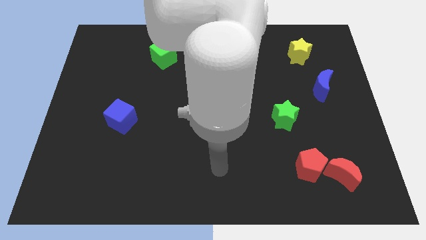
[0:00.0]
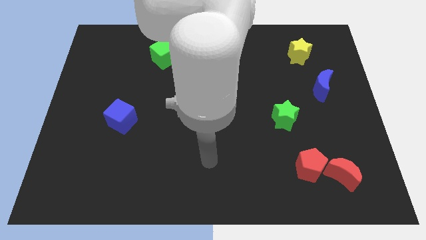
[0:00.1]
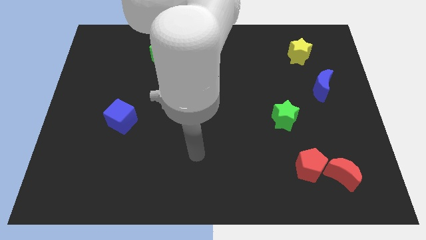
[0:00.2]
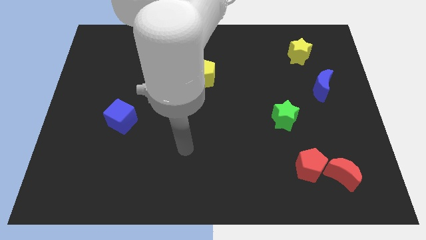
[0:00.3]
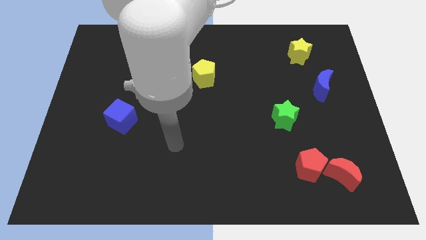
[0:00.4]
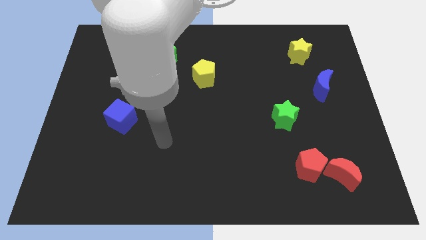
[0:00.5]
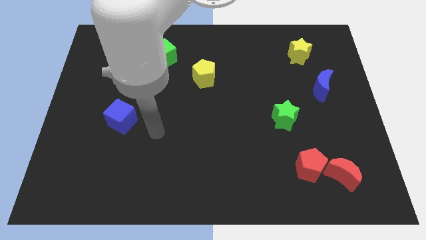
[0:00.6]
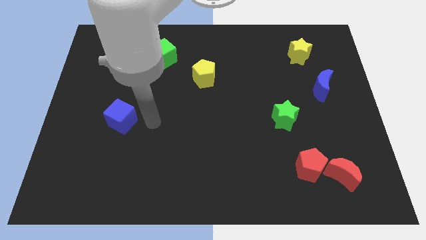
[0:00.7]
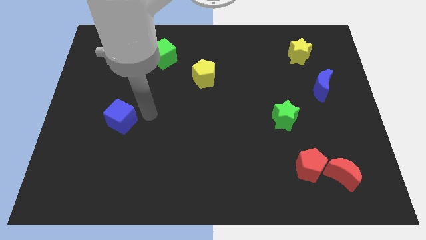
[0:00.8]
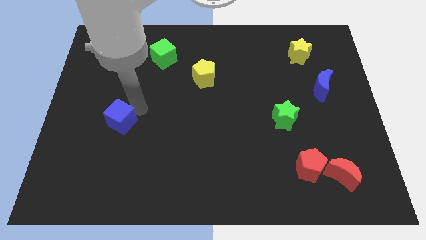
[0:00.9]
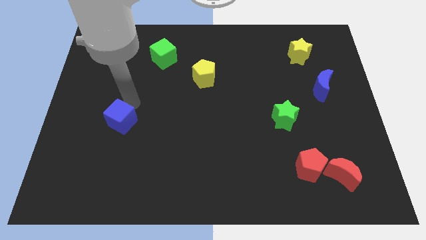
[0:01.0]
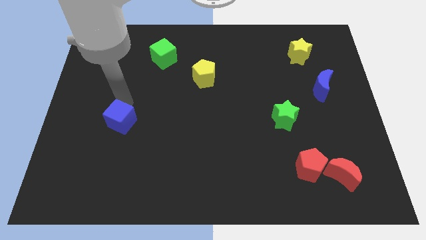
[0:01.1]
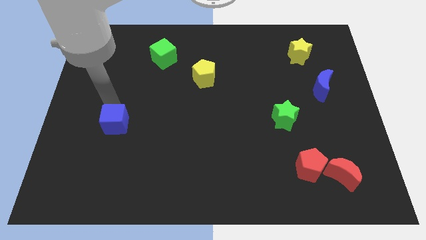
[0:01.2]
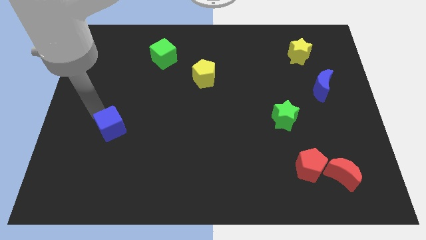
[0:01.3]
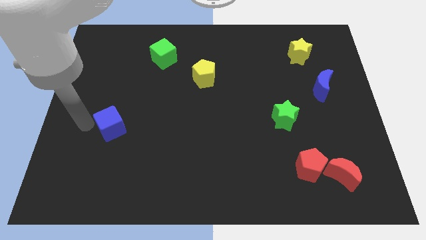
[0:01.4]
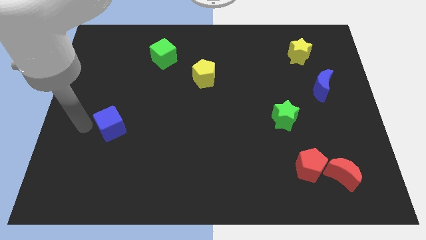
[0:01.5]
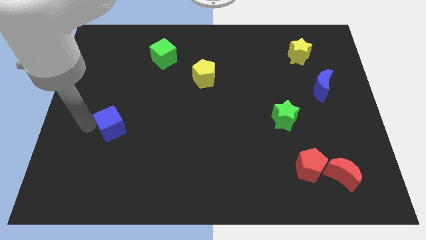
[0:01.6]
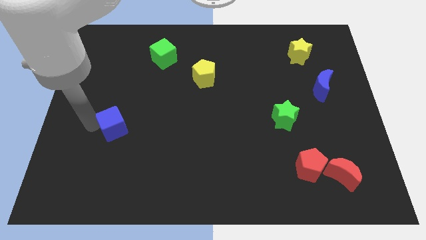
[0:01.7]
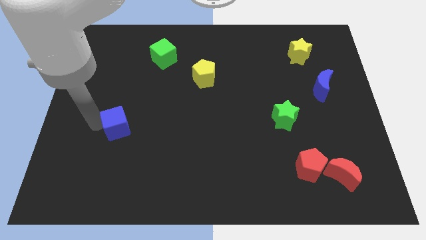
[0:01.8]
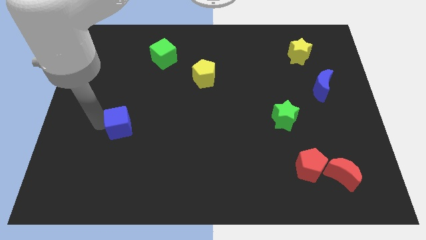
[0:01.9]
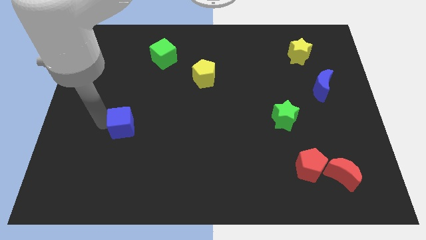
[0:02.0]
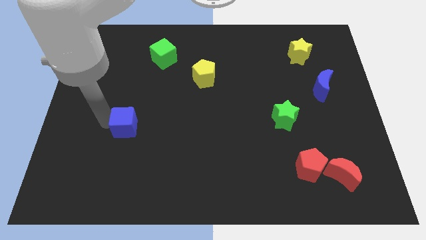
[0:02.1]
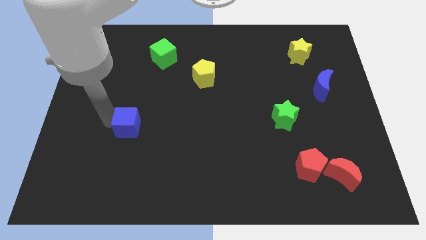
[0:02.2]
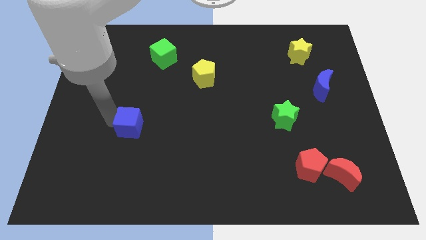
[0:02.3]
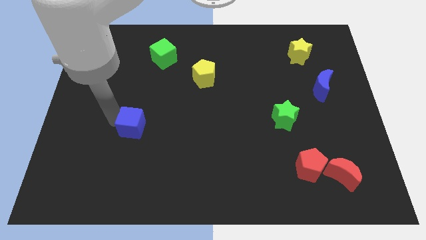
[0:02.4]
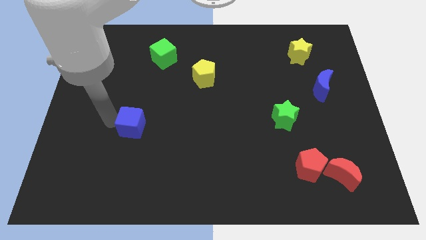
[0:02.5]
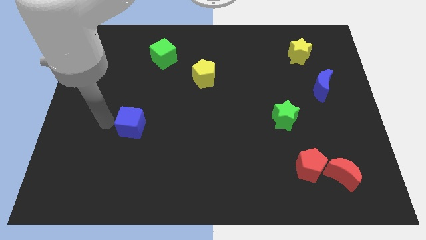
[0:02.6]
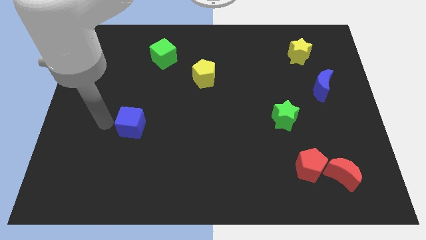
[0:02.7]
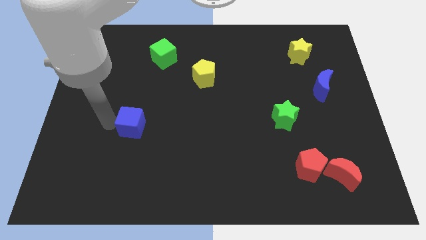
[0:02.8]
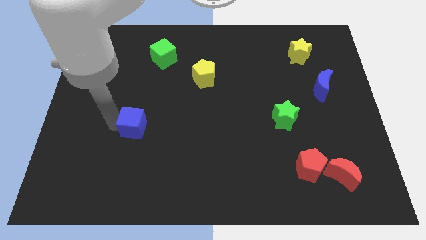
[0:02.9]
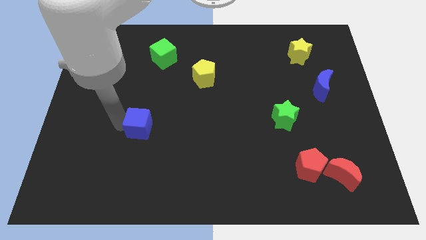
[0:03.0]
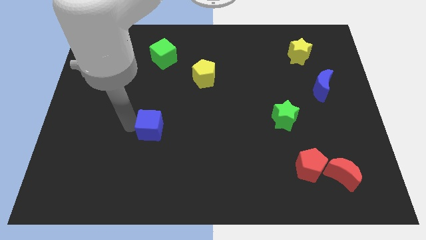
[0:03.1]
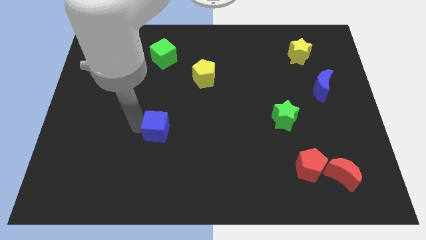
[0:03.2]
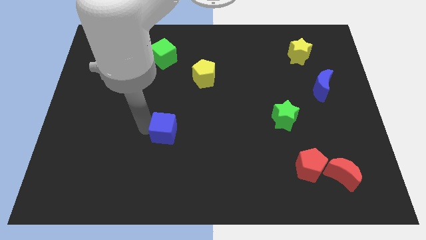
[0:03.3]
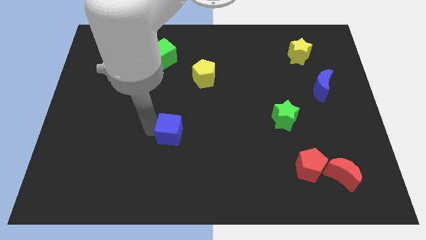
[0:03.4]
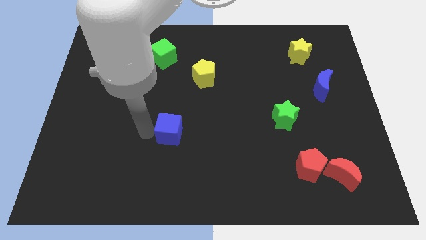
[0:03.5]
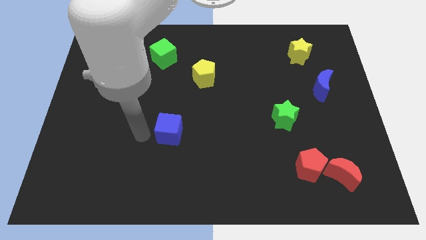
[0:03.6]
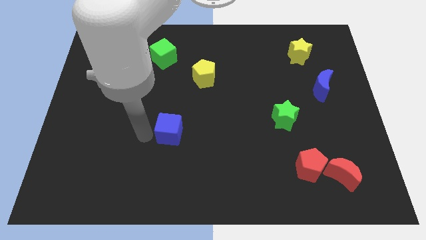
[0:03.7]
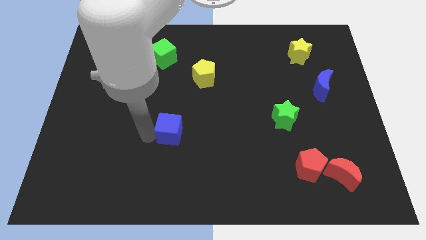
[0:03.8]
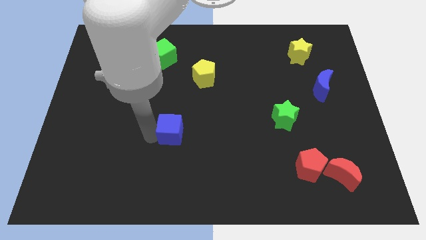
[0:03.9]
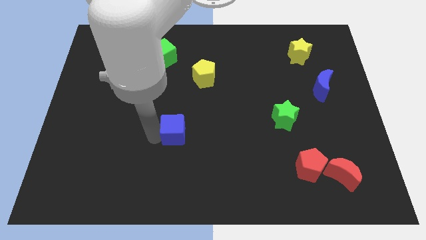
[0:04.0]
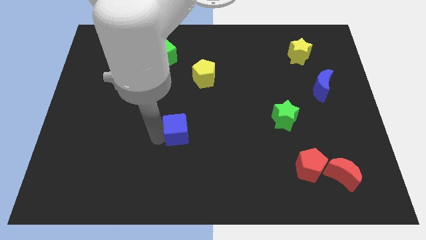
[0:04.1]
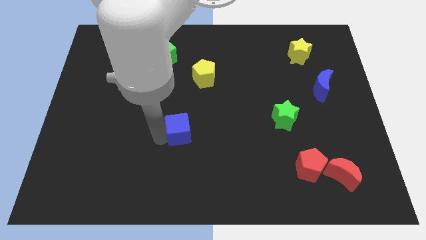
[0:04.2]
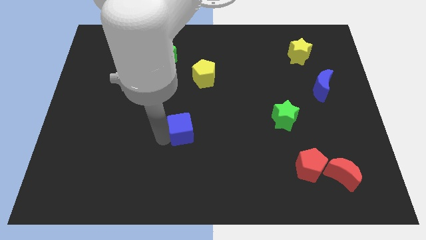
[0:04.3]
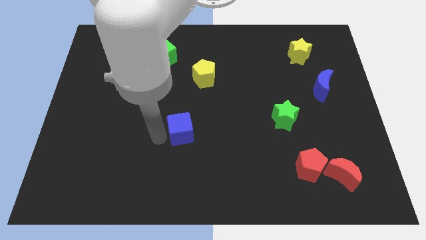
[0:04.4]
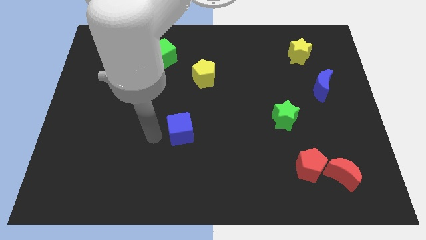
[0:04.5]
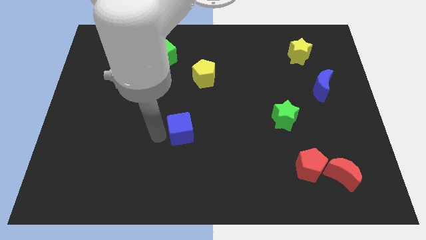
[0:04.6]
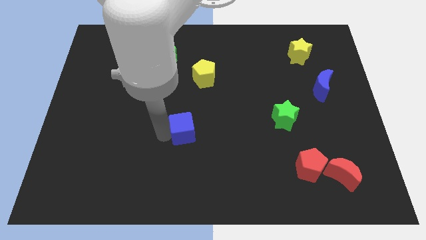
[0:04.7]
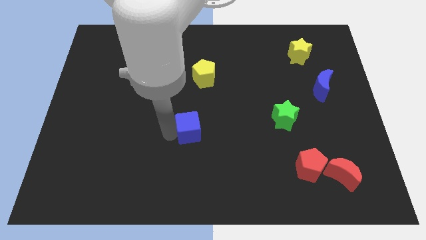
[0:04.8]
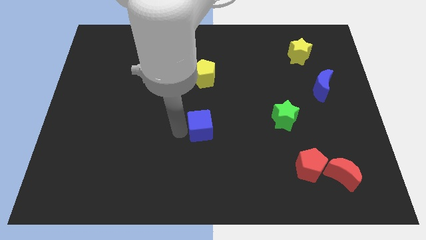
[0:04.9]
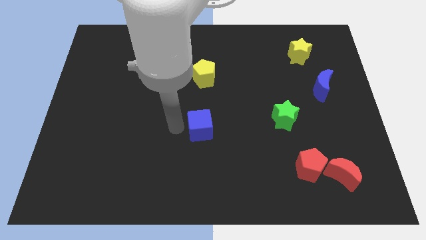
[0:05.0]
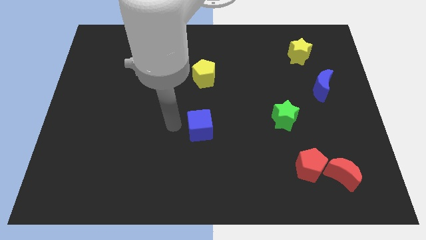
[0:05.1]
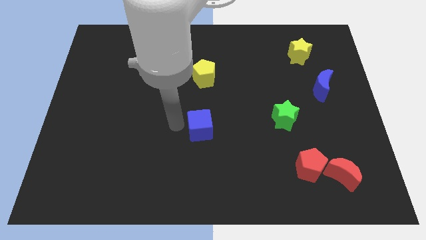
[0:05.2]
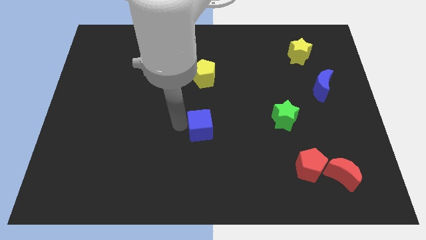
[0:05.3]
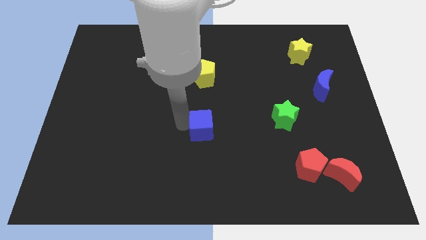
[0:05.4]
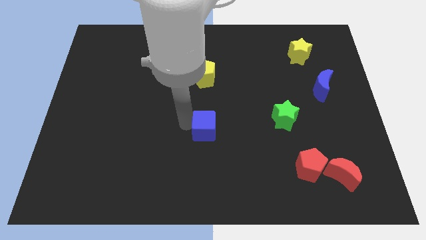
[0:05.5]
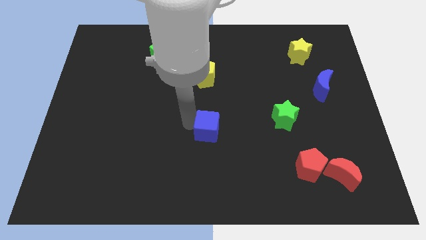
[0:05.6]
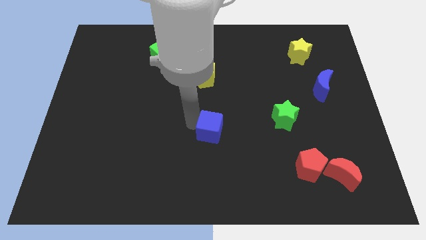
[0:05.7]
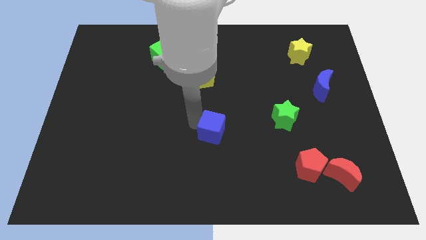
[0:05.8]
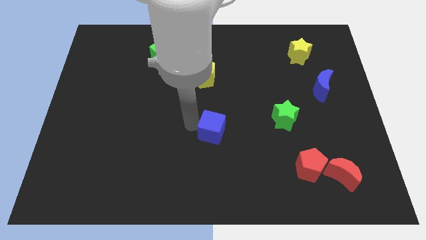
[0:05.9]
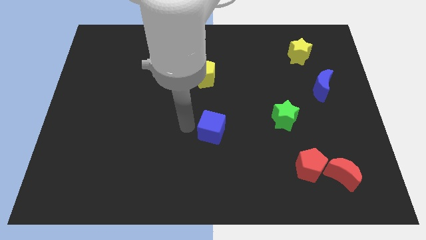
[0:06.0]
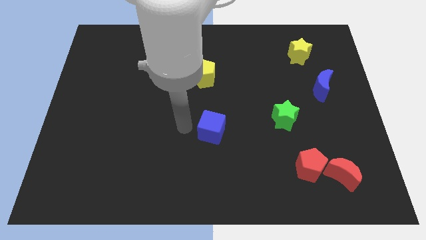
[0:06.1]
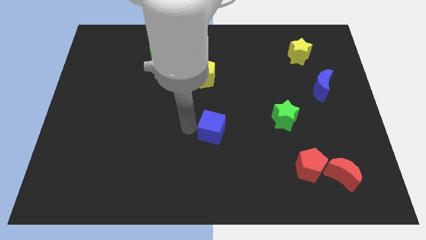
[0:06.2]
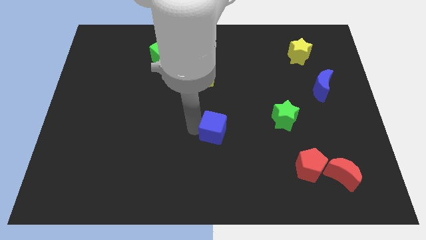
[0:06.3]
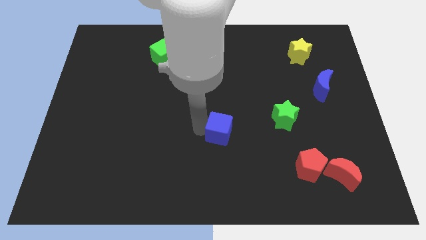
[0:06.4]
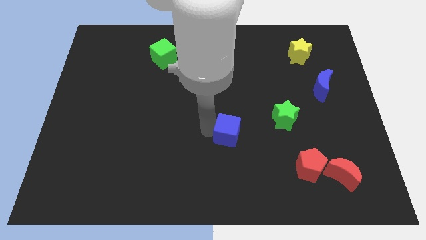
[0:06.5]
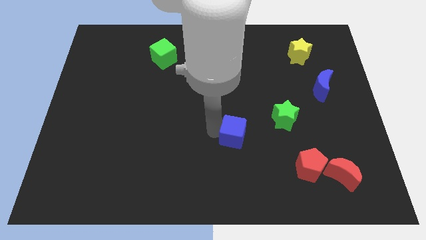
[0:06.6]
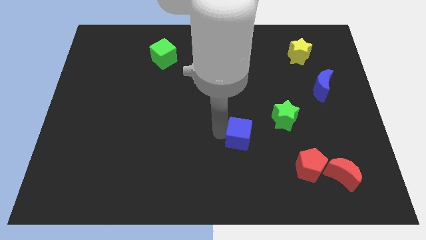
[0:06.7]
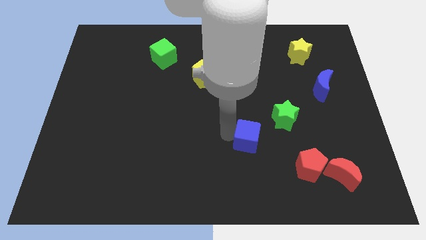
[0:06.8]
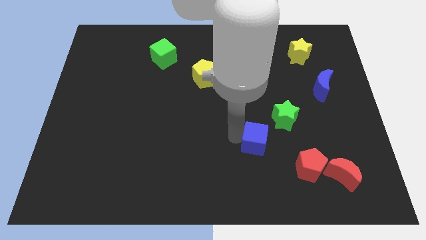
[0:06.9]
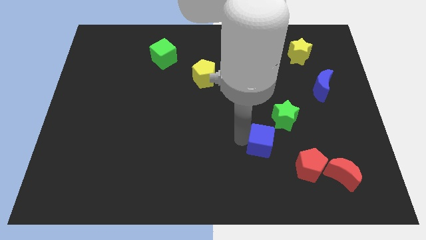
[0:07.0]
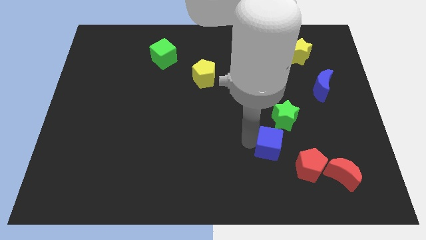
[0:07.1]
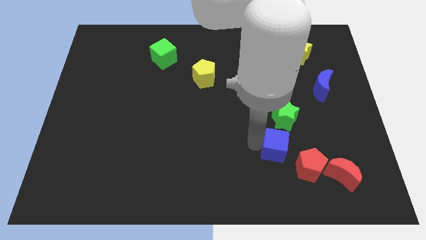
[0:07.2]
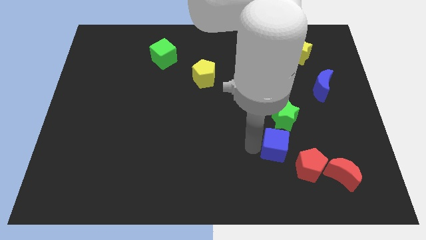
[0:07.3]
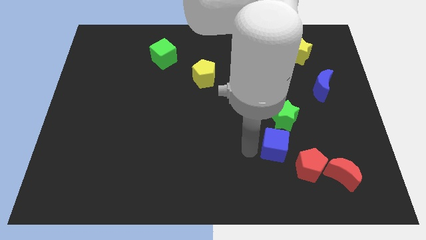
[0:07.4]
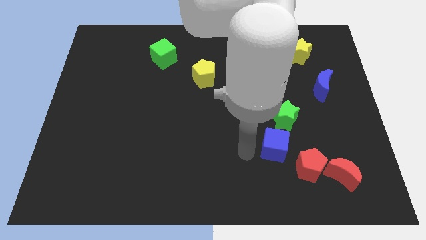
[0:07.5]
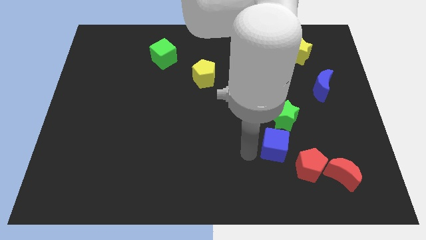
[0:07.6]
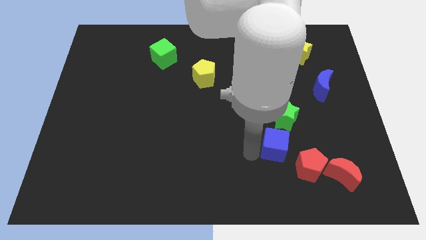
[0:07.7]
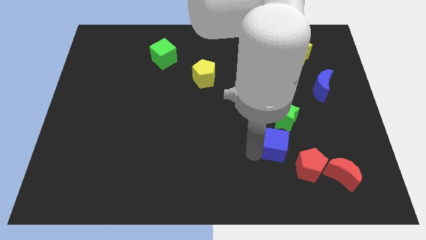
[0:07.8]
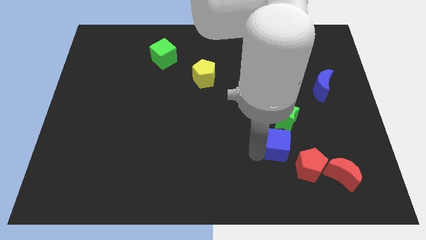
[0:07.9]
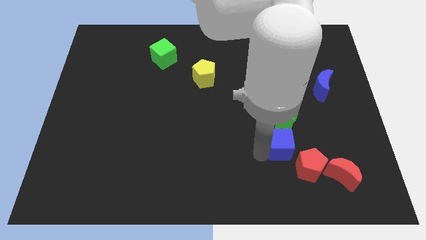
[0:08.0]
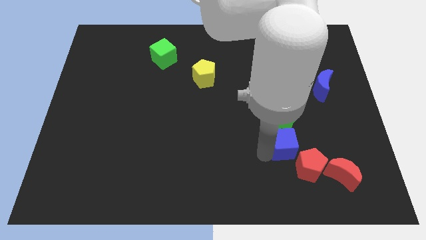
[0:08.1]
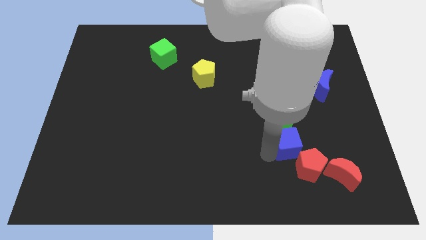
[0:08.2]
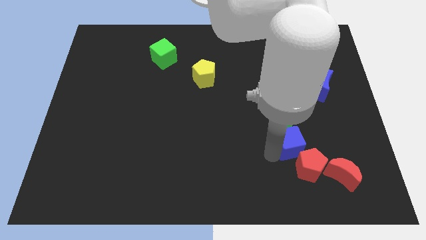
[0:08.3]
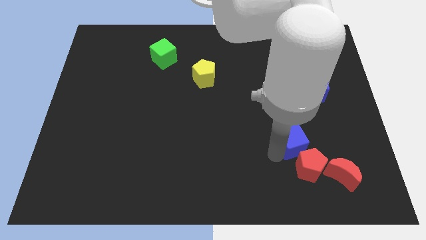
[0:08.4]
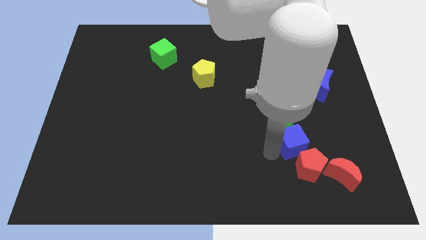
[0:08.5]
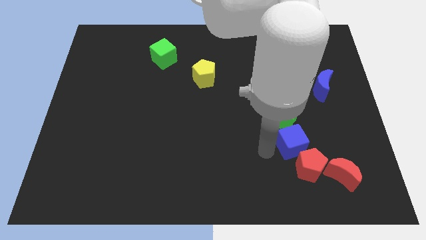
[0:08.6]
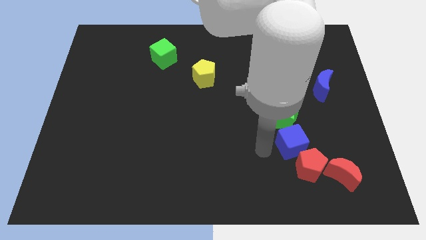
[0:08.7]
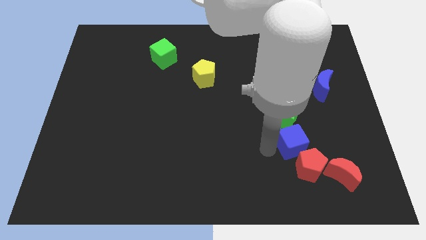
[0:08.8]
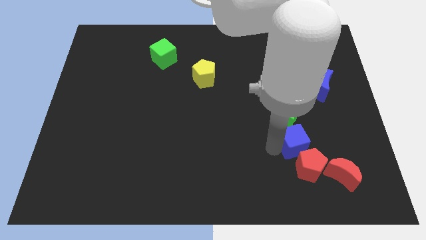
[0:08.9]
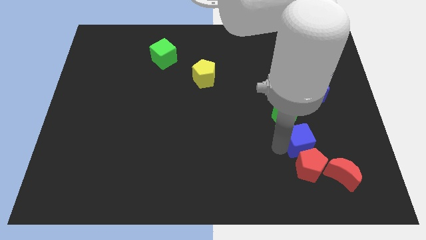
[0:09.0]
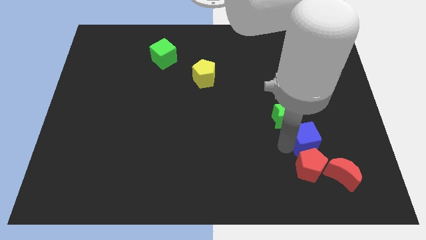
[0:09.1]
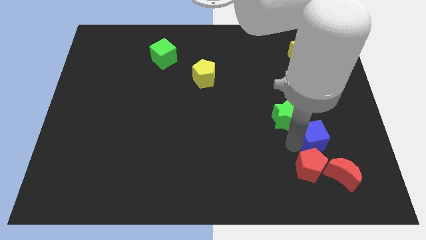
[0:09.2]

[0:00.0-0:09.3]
move the blue cube to the top of the red moon
